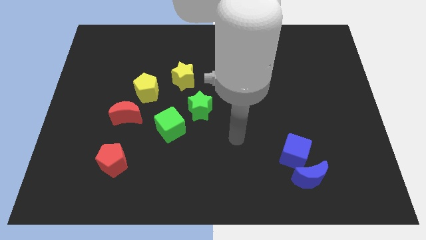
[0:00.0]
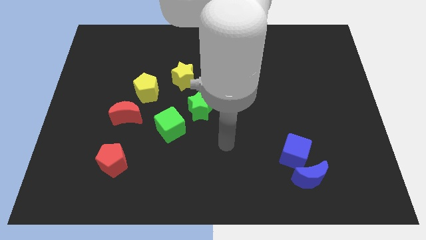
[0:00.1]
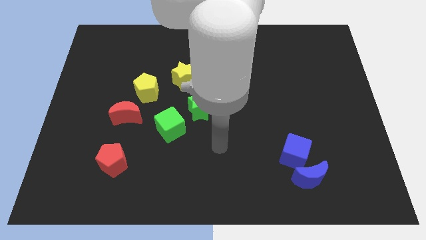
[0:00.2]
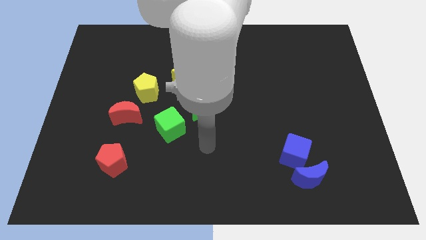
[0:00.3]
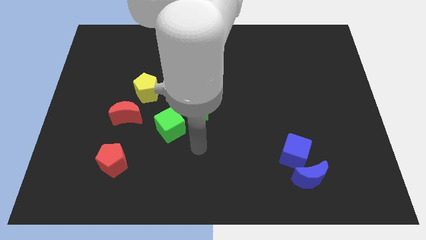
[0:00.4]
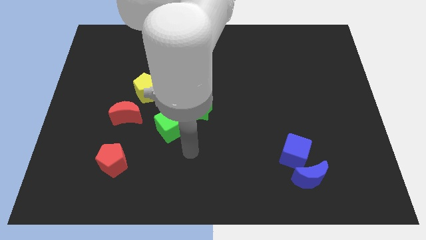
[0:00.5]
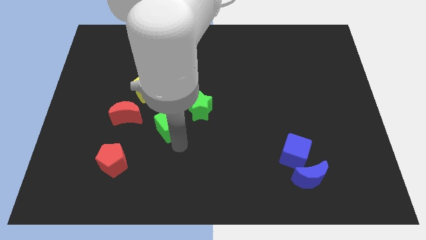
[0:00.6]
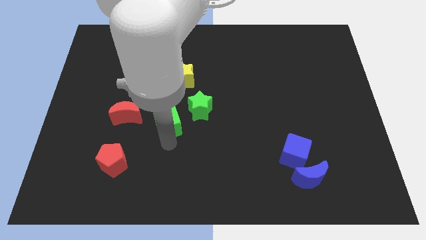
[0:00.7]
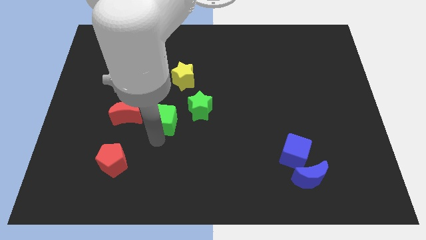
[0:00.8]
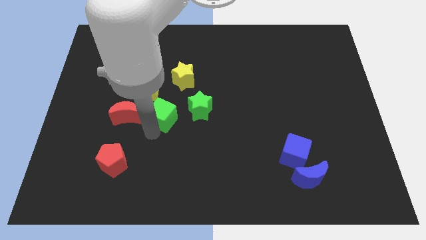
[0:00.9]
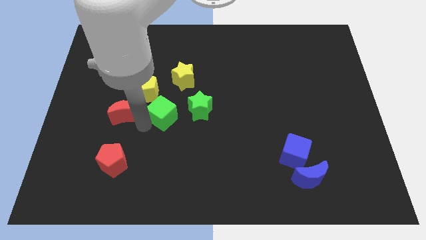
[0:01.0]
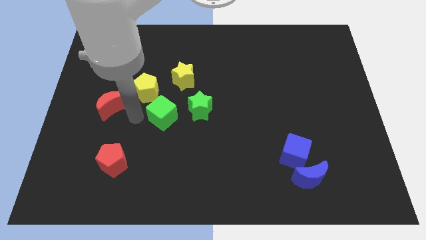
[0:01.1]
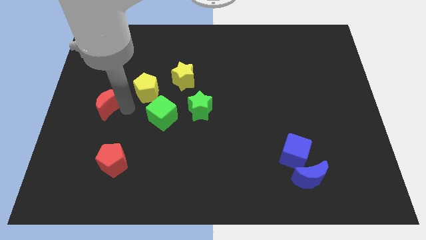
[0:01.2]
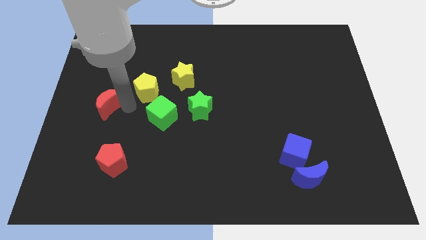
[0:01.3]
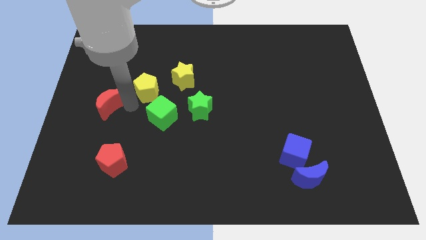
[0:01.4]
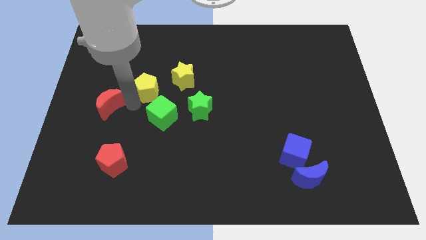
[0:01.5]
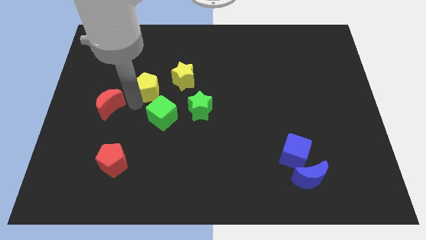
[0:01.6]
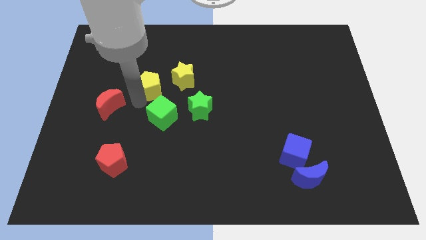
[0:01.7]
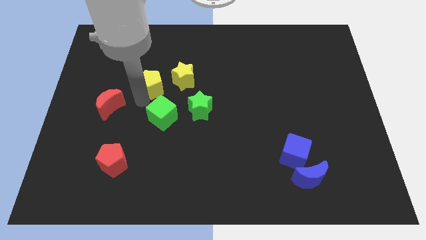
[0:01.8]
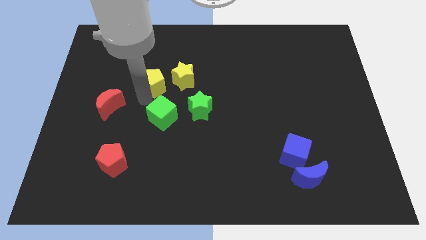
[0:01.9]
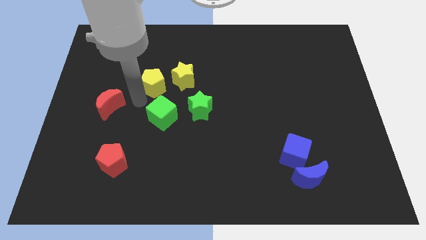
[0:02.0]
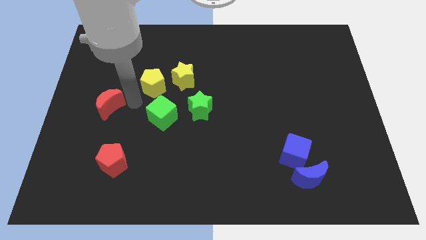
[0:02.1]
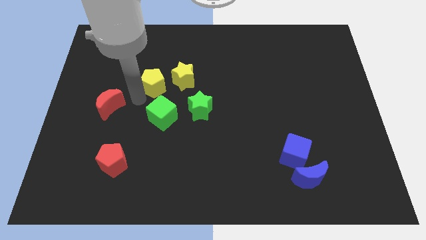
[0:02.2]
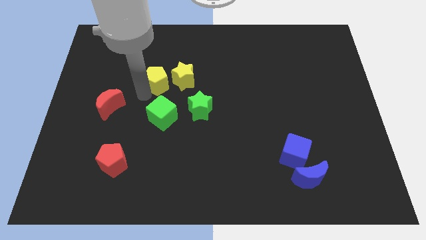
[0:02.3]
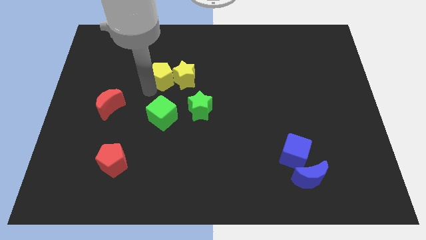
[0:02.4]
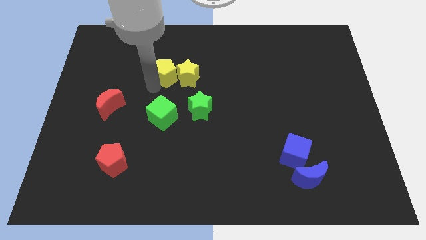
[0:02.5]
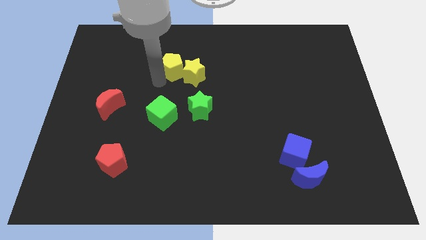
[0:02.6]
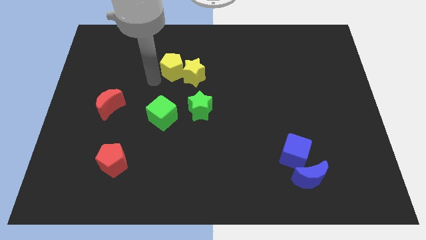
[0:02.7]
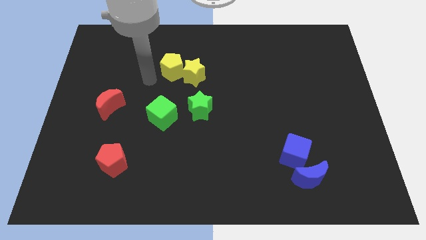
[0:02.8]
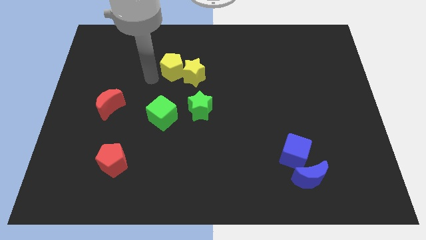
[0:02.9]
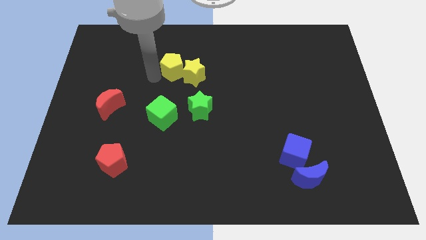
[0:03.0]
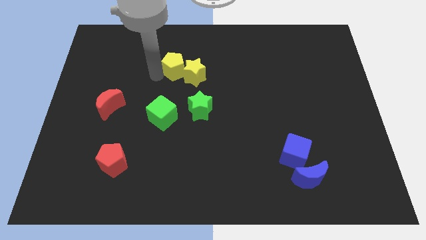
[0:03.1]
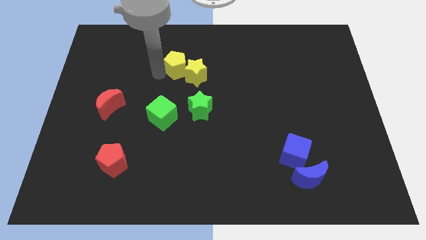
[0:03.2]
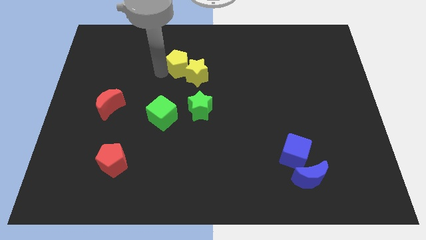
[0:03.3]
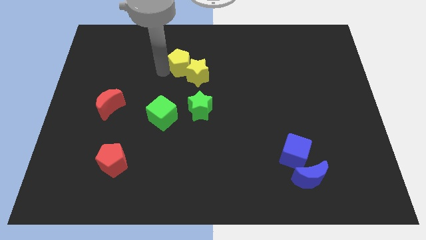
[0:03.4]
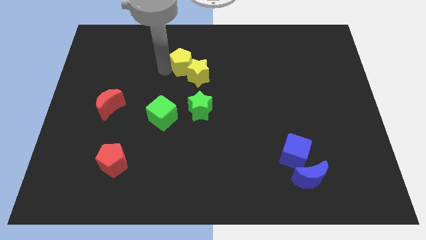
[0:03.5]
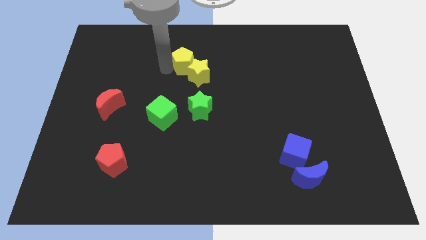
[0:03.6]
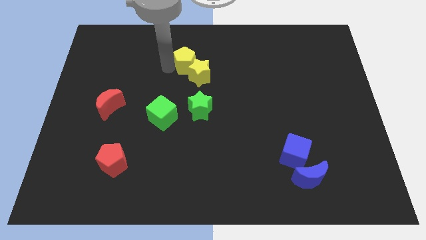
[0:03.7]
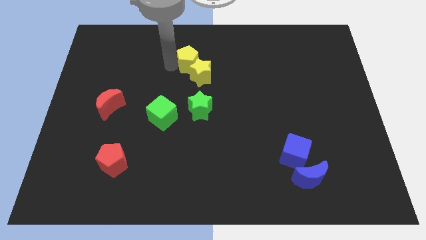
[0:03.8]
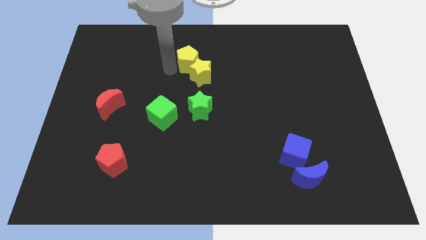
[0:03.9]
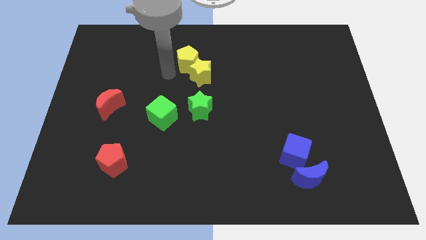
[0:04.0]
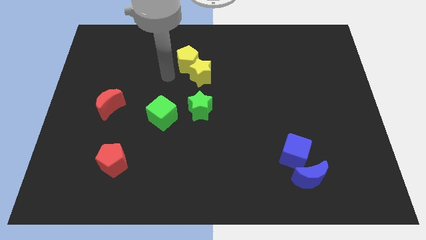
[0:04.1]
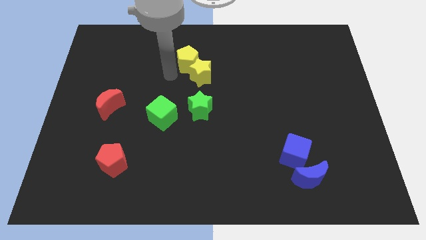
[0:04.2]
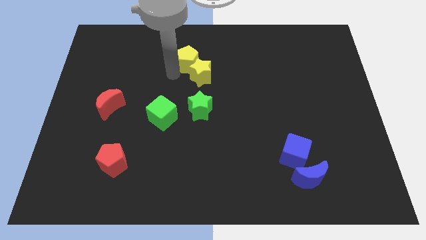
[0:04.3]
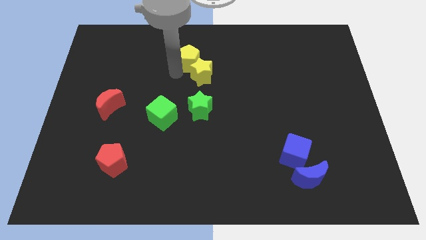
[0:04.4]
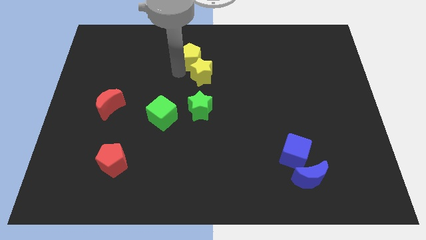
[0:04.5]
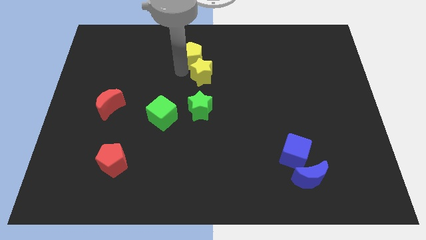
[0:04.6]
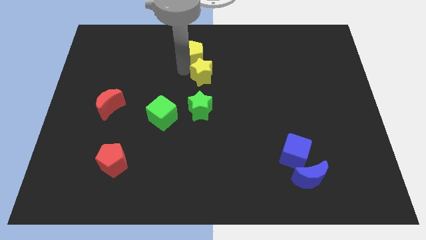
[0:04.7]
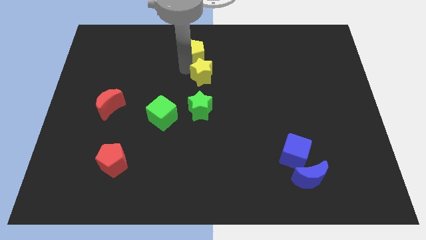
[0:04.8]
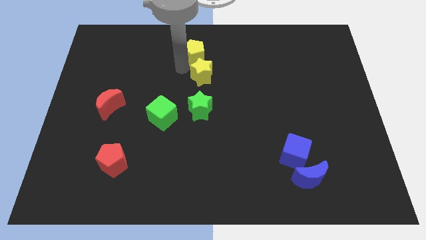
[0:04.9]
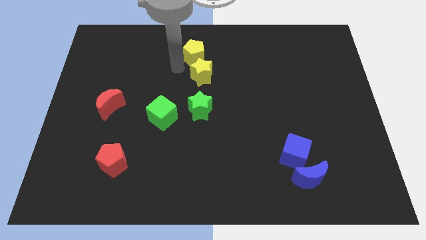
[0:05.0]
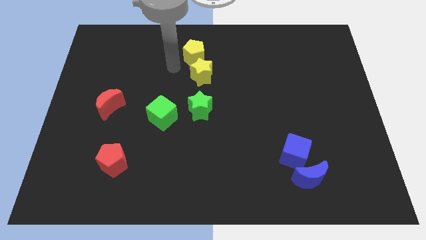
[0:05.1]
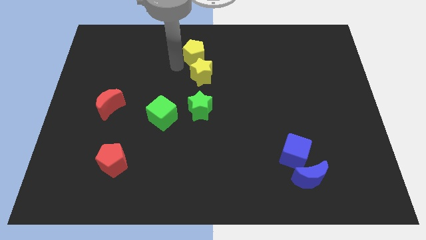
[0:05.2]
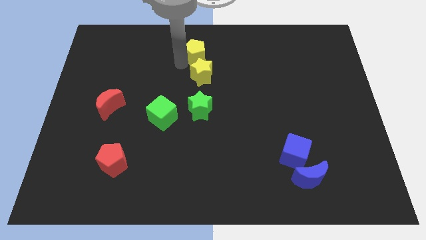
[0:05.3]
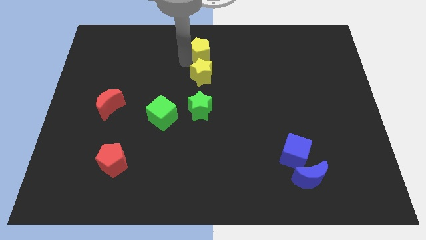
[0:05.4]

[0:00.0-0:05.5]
move the yellow pentagon to the top side

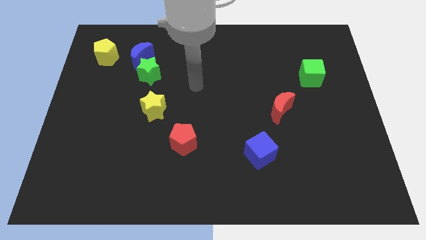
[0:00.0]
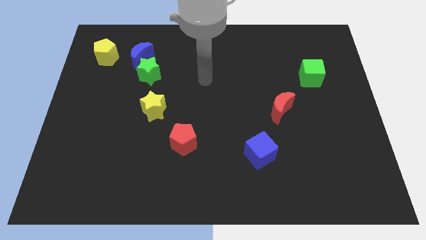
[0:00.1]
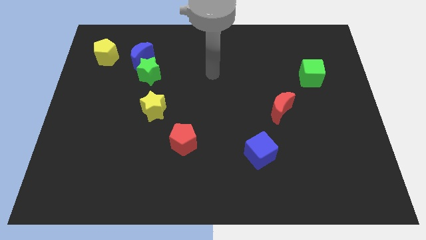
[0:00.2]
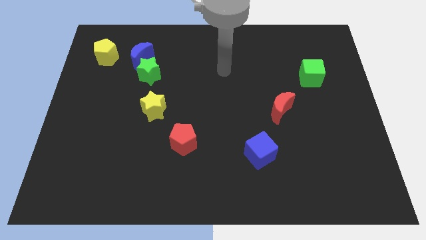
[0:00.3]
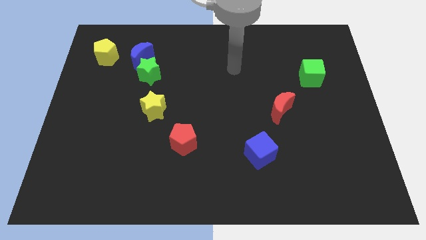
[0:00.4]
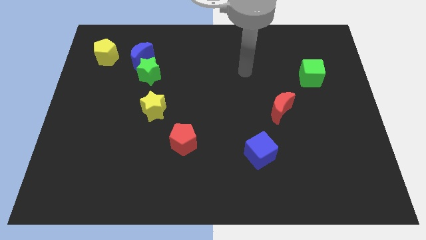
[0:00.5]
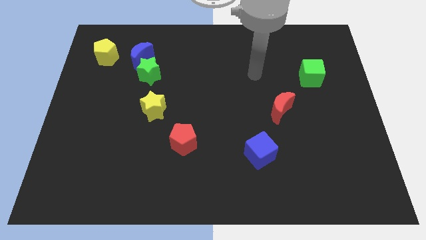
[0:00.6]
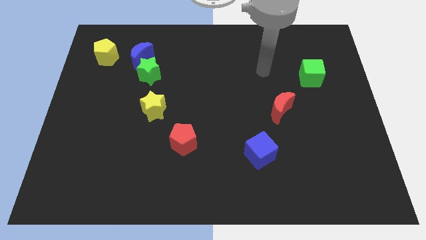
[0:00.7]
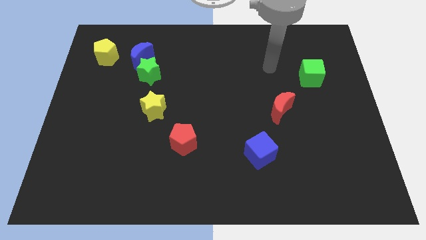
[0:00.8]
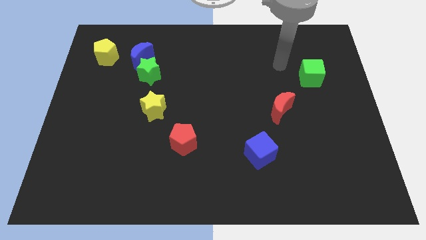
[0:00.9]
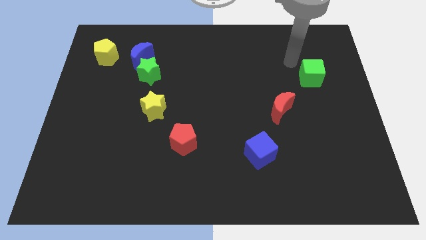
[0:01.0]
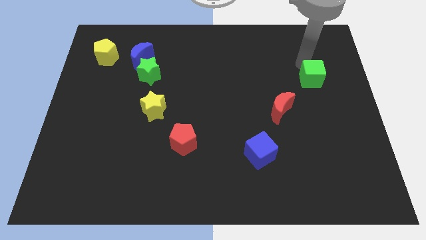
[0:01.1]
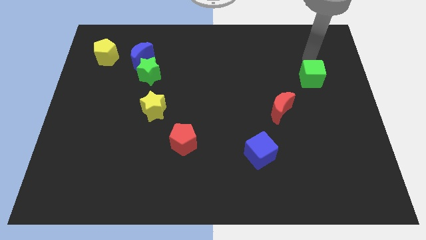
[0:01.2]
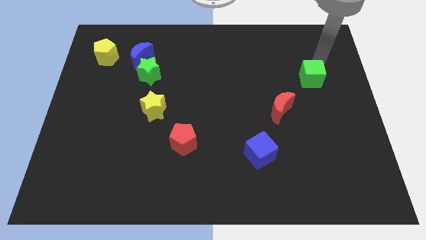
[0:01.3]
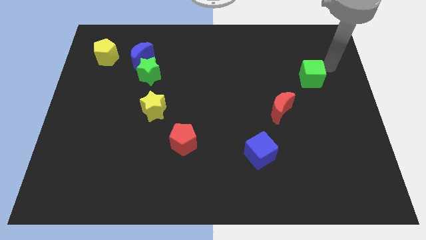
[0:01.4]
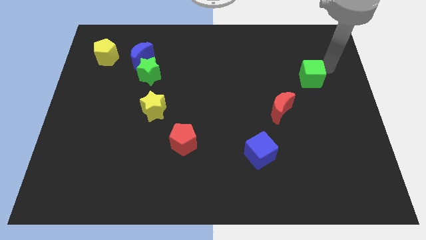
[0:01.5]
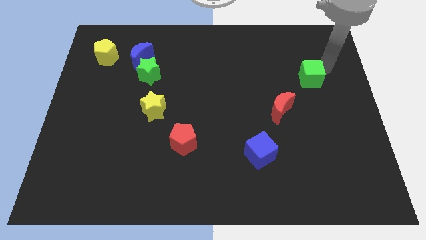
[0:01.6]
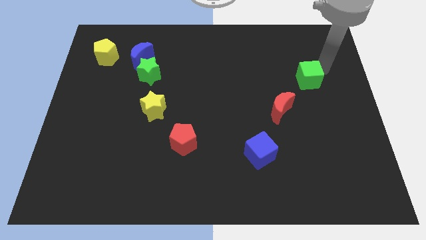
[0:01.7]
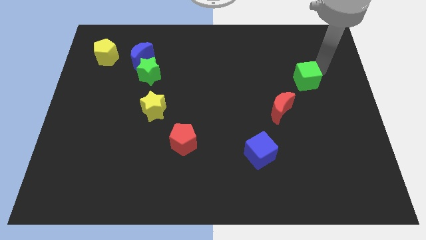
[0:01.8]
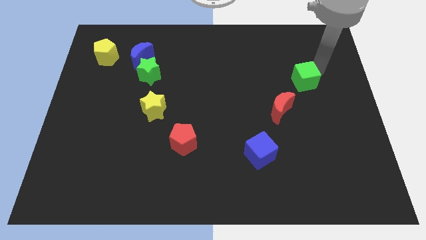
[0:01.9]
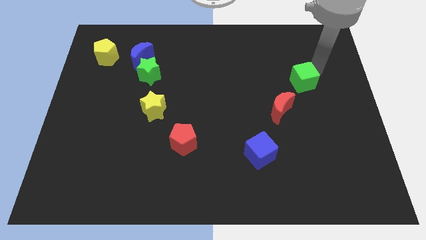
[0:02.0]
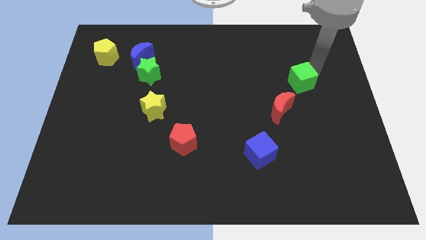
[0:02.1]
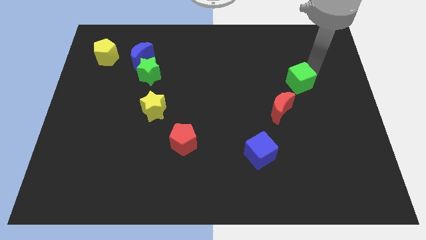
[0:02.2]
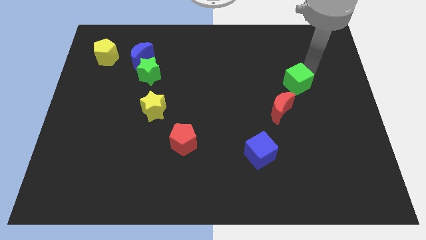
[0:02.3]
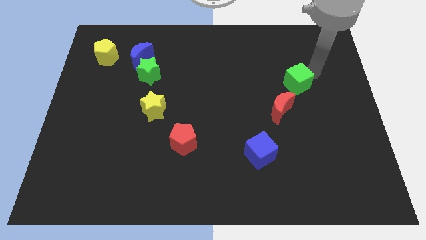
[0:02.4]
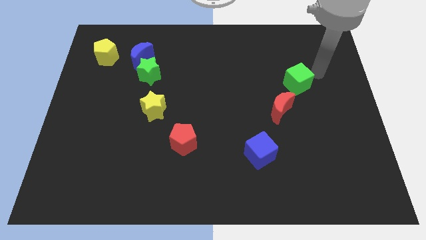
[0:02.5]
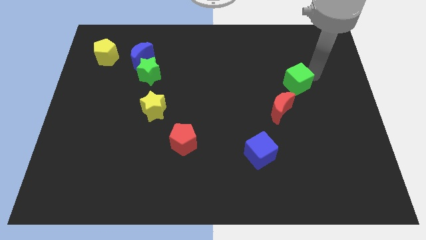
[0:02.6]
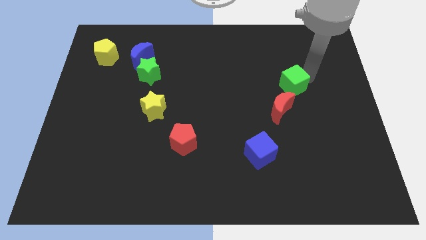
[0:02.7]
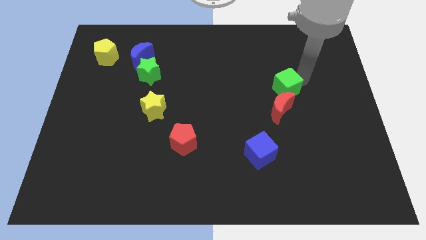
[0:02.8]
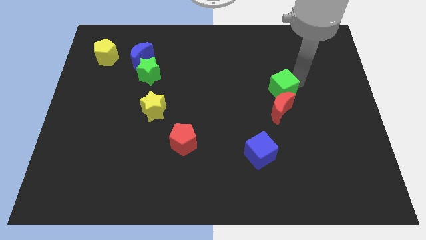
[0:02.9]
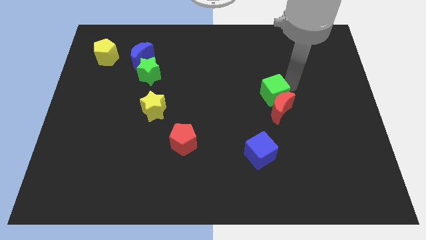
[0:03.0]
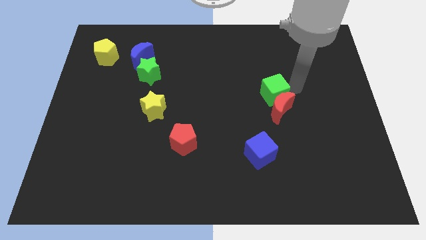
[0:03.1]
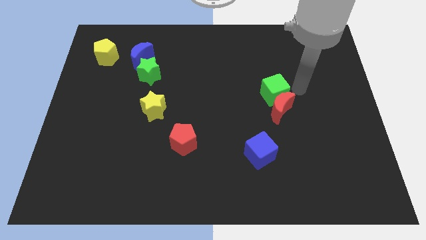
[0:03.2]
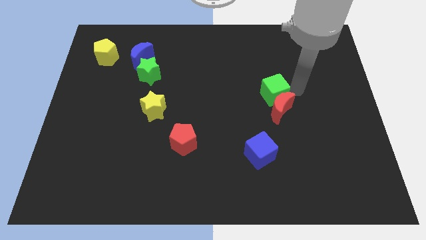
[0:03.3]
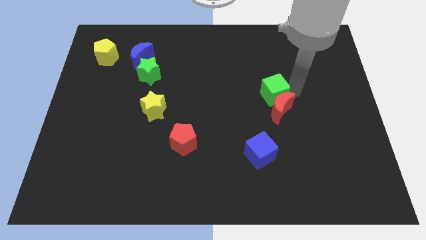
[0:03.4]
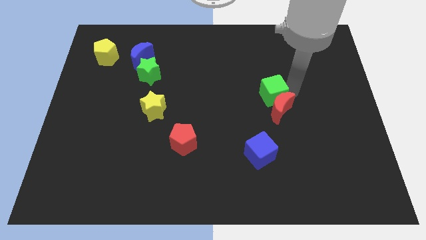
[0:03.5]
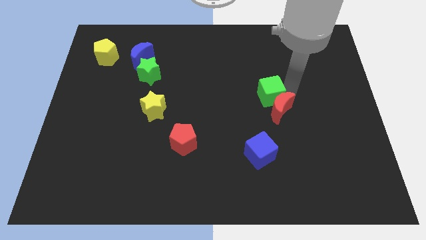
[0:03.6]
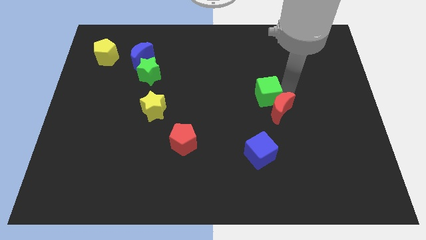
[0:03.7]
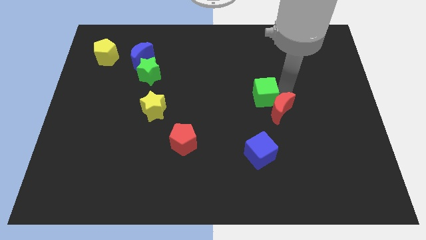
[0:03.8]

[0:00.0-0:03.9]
put the green cube to the middle
